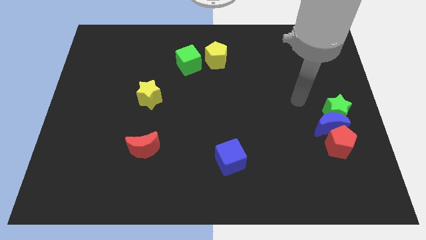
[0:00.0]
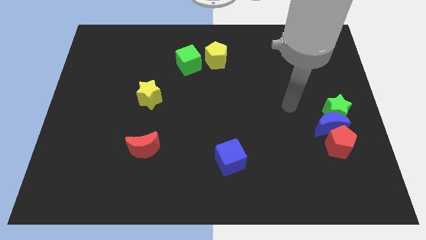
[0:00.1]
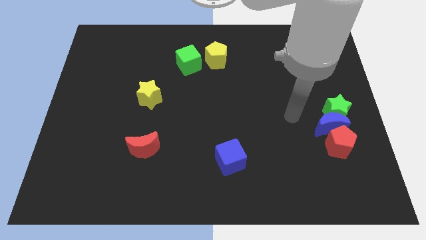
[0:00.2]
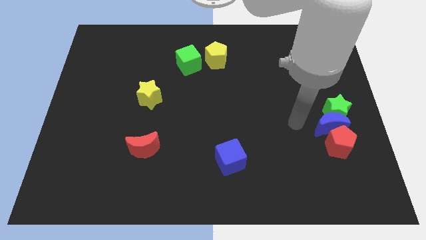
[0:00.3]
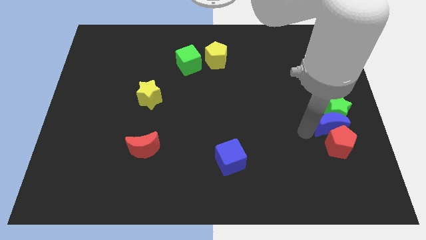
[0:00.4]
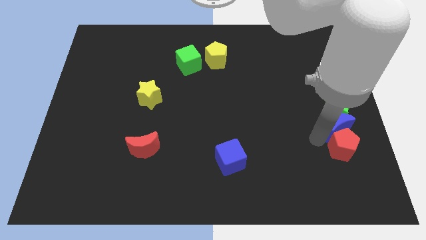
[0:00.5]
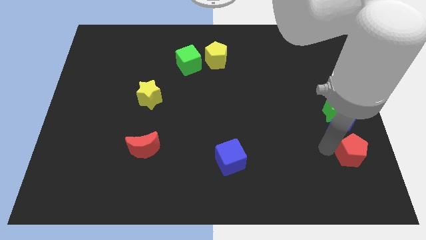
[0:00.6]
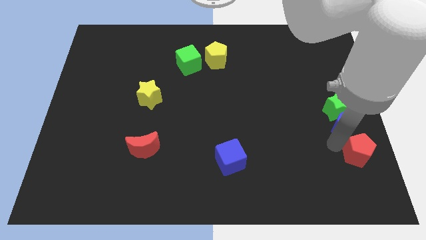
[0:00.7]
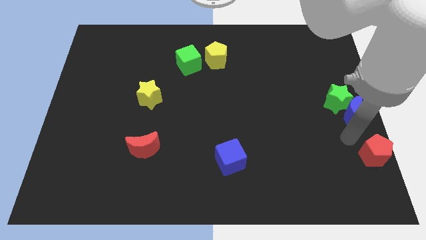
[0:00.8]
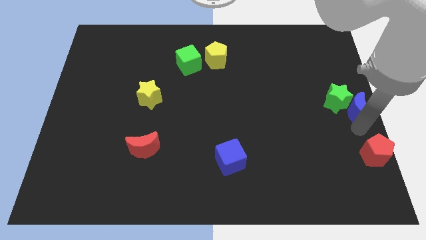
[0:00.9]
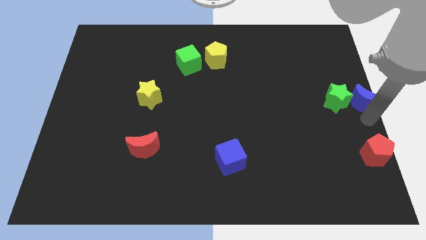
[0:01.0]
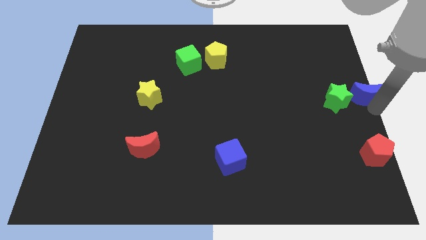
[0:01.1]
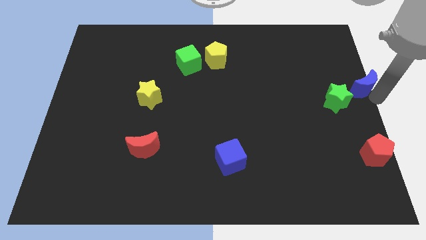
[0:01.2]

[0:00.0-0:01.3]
move the blue moon away from the green star and red pentagon

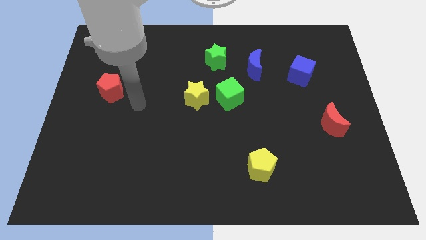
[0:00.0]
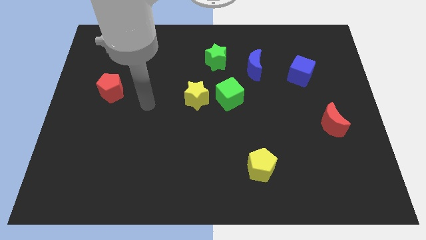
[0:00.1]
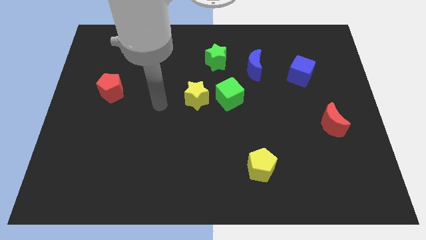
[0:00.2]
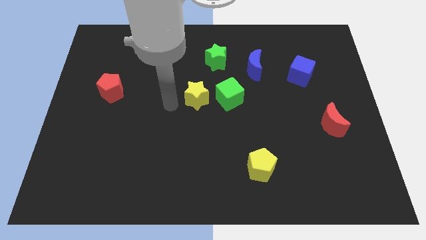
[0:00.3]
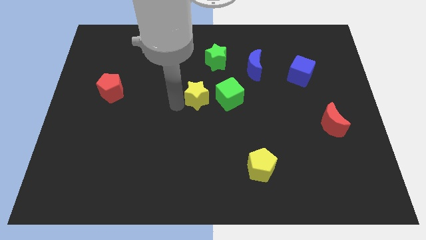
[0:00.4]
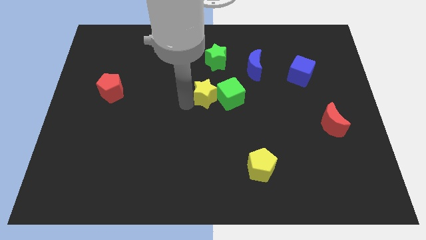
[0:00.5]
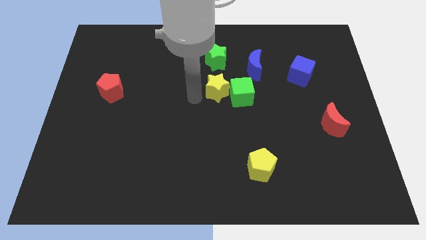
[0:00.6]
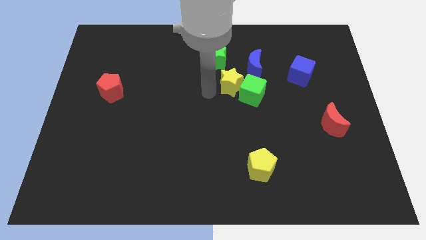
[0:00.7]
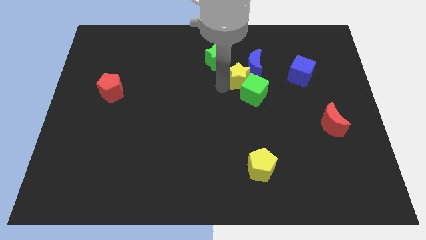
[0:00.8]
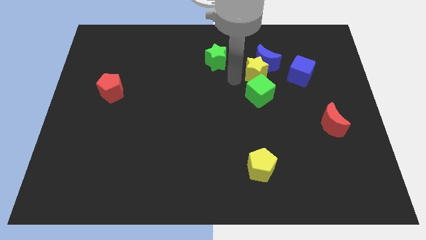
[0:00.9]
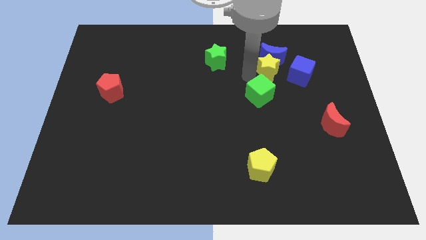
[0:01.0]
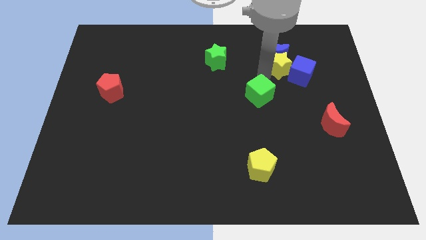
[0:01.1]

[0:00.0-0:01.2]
pull the green cube apart from the yellow star

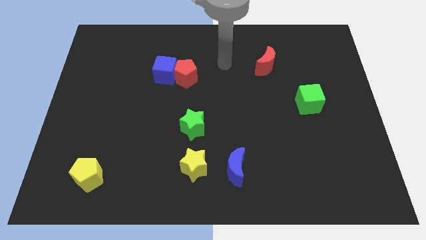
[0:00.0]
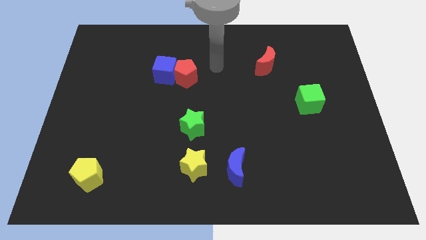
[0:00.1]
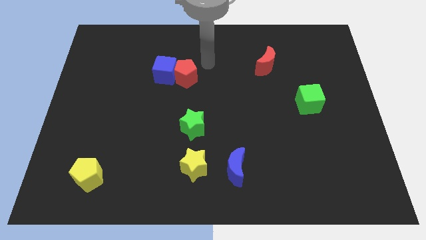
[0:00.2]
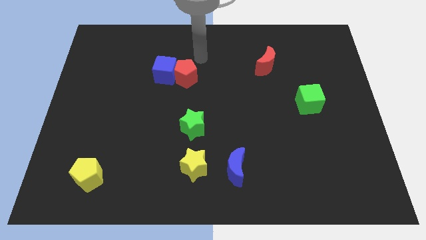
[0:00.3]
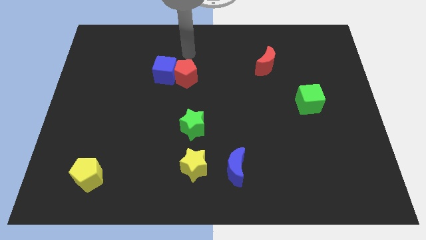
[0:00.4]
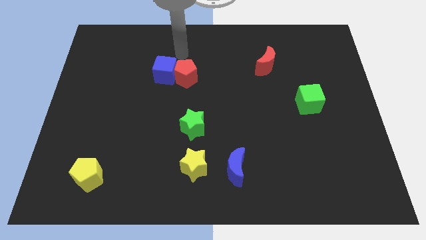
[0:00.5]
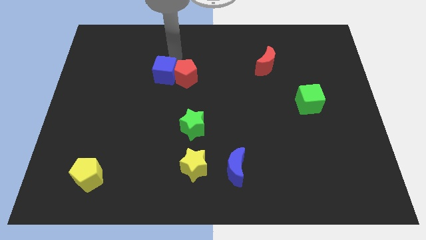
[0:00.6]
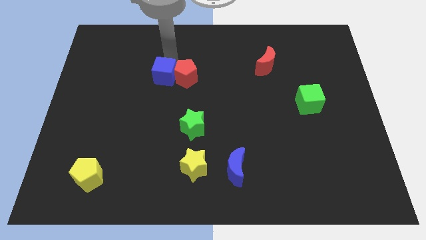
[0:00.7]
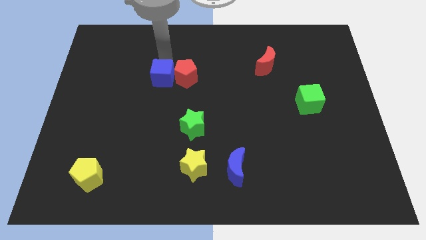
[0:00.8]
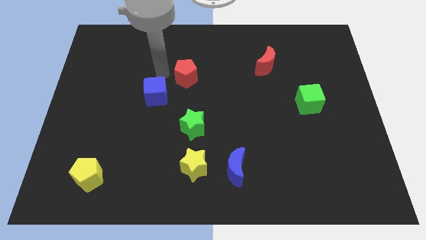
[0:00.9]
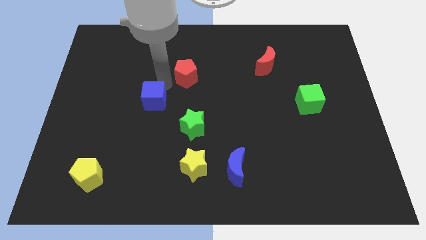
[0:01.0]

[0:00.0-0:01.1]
separate the red pentagon from the blue cube

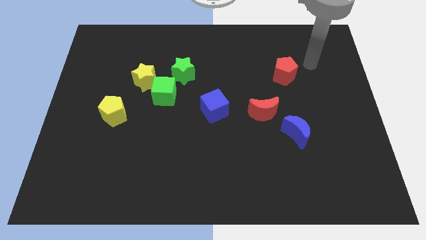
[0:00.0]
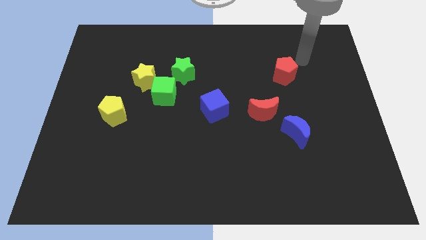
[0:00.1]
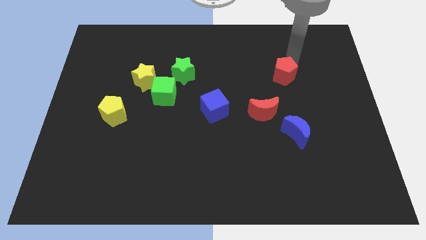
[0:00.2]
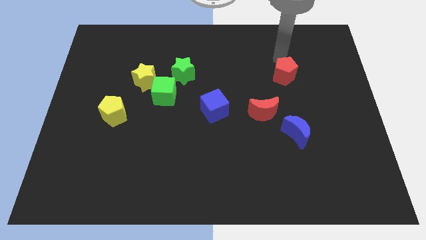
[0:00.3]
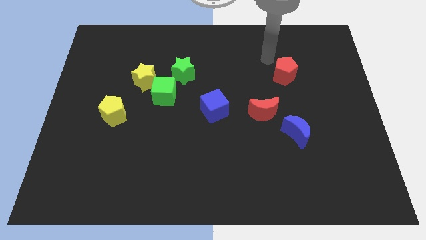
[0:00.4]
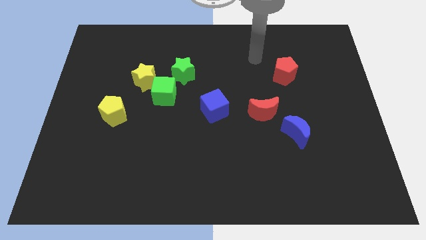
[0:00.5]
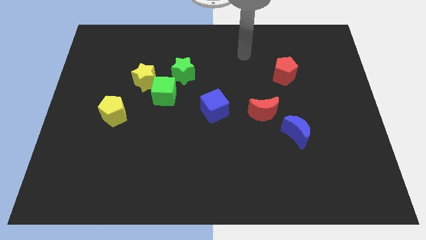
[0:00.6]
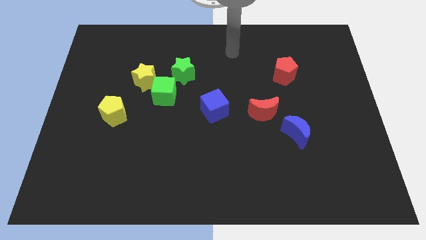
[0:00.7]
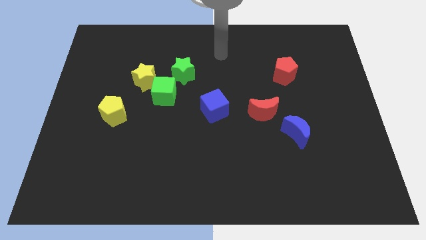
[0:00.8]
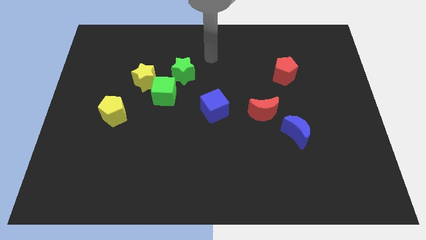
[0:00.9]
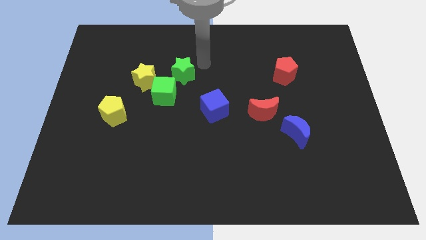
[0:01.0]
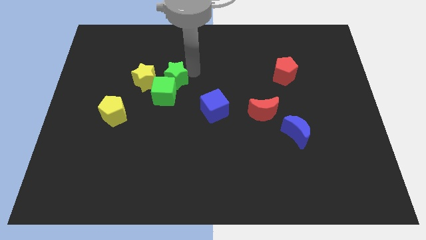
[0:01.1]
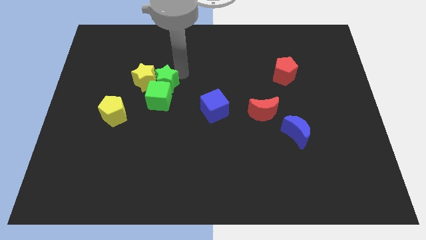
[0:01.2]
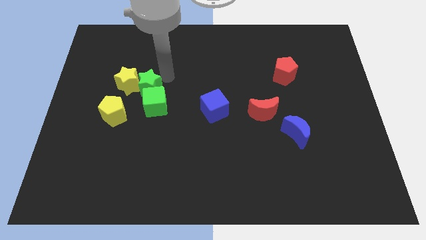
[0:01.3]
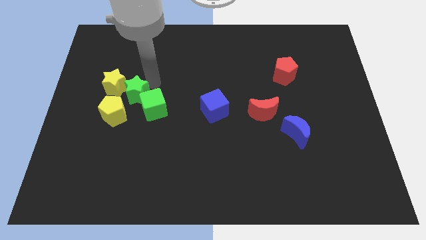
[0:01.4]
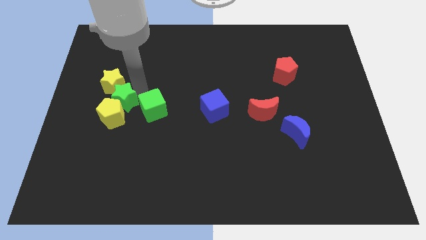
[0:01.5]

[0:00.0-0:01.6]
separate the green cube from the yellow star and green star

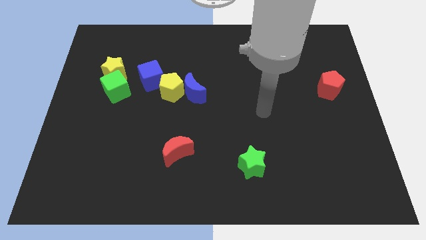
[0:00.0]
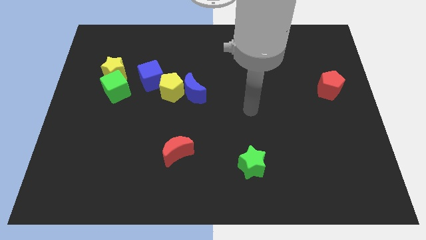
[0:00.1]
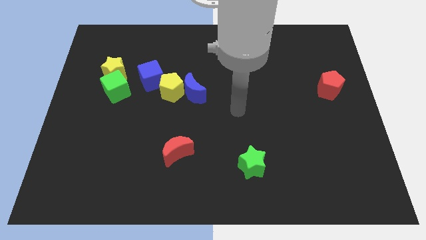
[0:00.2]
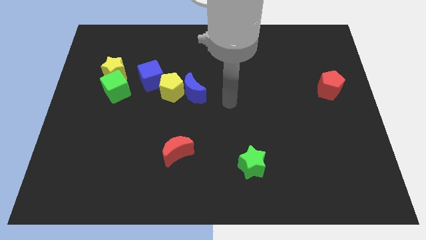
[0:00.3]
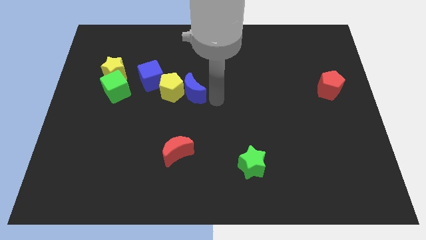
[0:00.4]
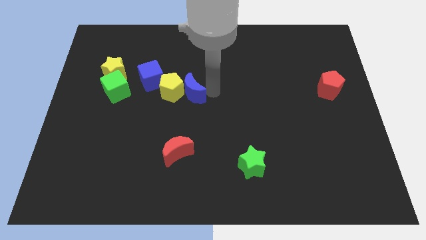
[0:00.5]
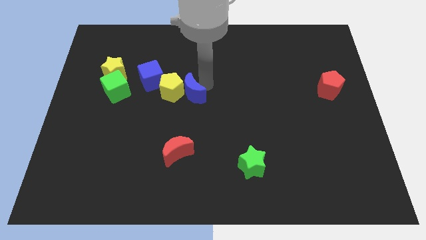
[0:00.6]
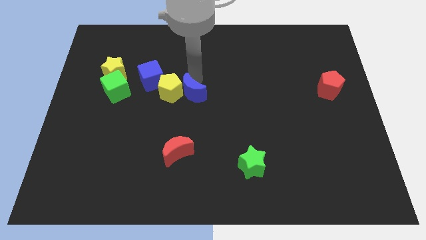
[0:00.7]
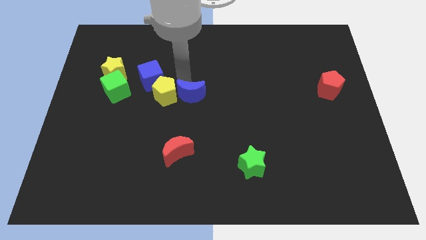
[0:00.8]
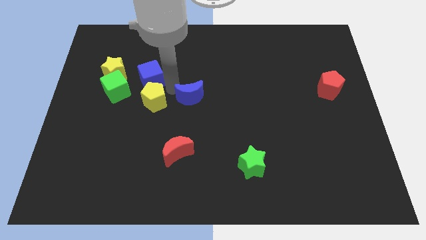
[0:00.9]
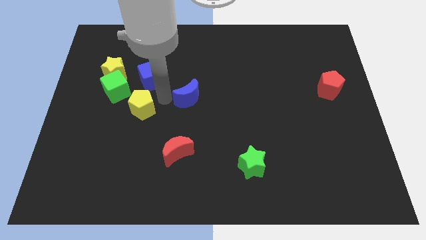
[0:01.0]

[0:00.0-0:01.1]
separate the blue moon from the yellow pentagon

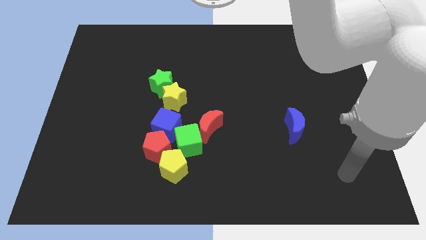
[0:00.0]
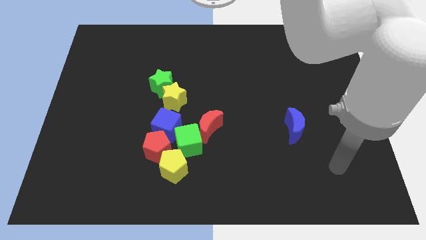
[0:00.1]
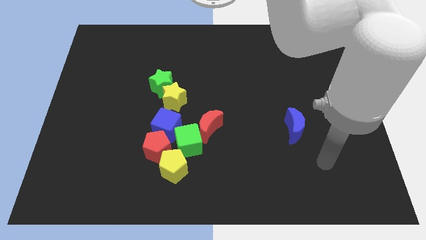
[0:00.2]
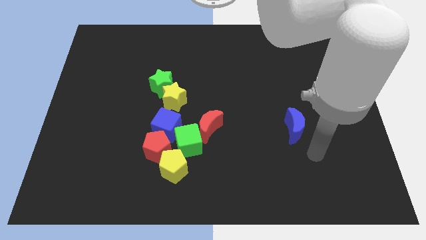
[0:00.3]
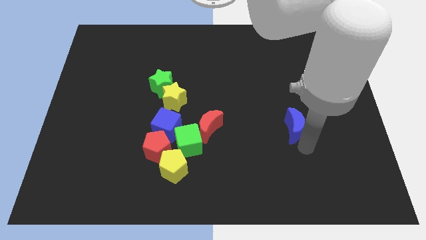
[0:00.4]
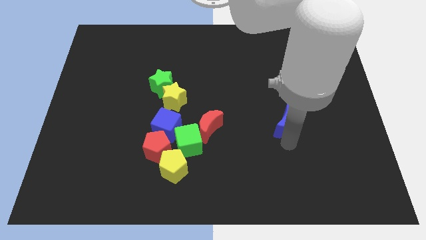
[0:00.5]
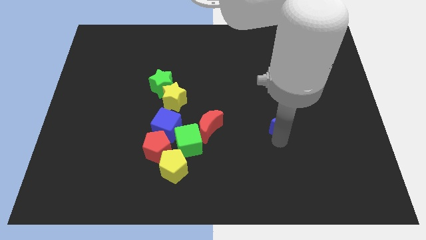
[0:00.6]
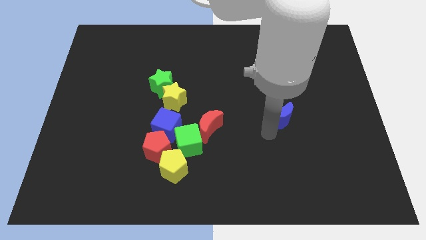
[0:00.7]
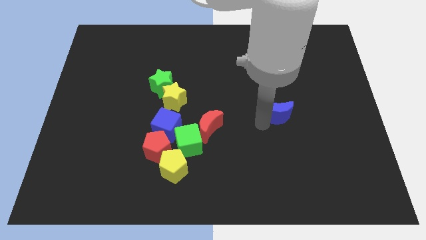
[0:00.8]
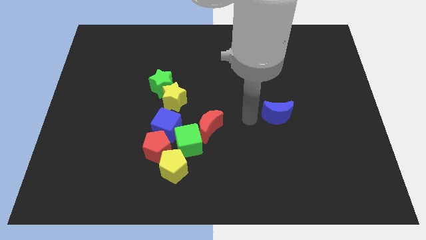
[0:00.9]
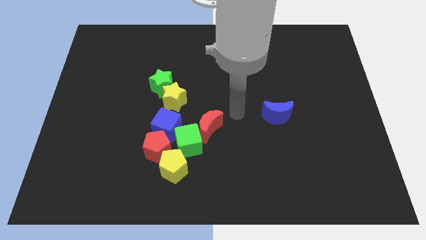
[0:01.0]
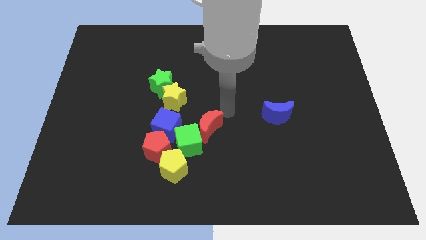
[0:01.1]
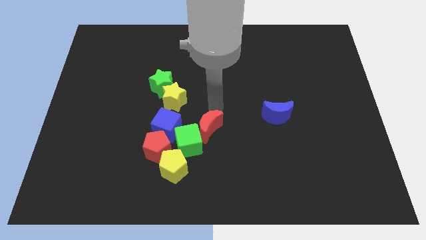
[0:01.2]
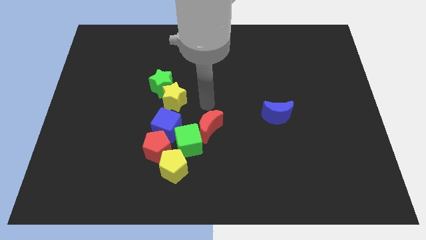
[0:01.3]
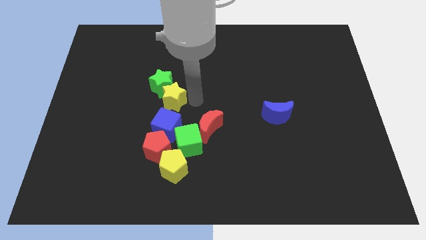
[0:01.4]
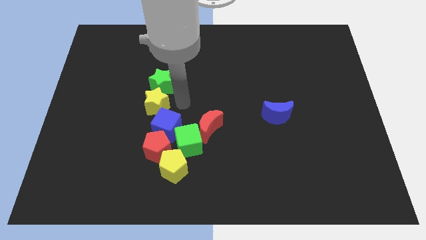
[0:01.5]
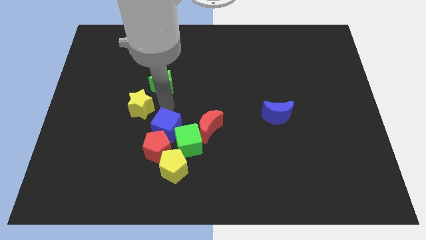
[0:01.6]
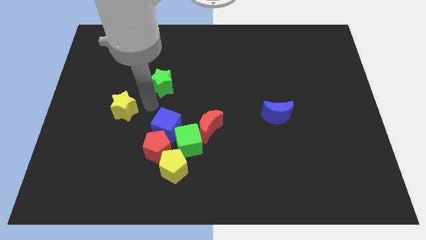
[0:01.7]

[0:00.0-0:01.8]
pull the green star apart from the yellow star

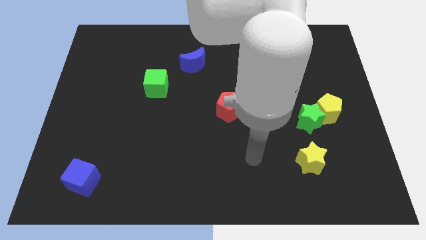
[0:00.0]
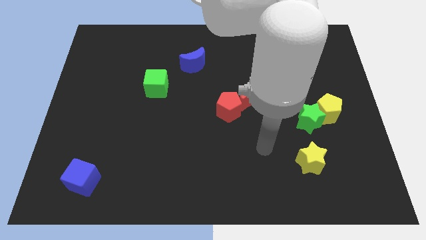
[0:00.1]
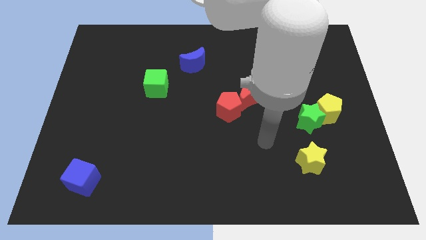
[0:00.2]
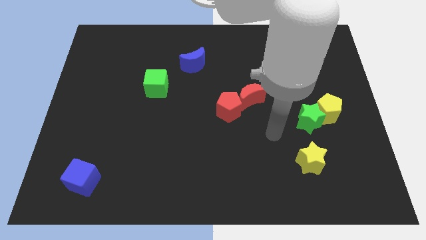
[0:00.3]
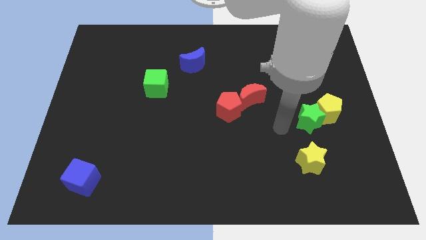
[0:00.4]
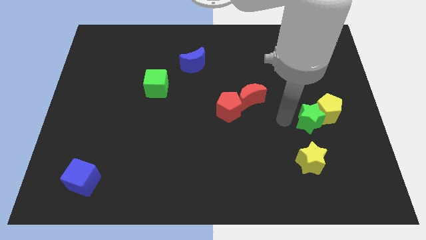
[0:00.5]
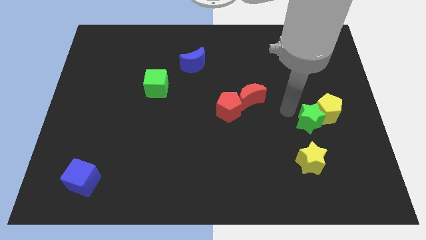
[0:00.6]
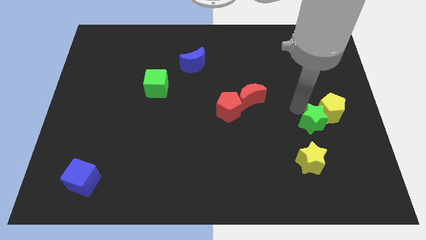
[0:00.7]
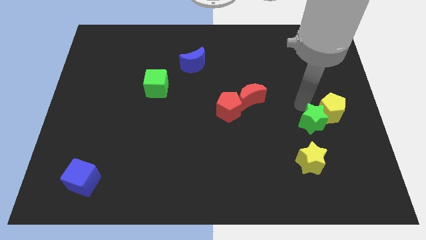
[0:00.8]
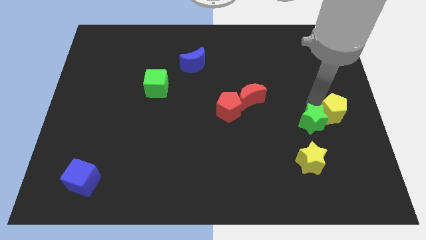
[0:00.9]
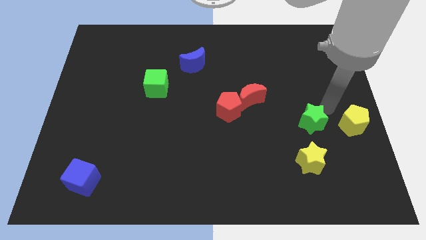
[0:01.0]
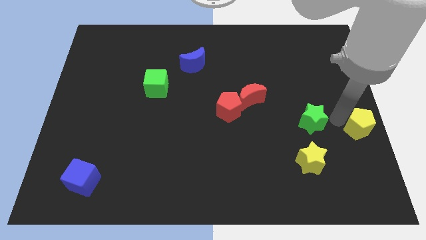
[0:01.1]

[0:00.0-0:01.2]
separate the green star from the yellow pentagon

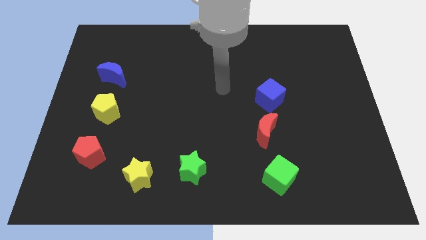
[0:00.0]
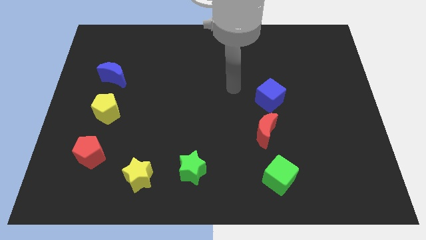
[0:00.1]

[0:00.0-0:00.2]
move the red moon away from the blue cube
